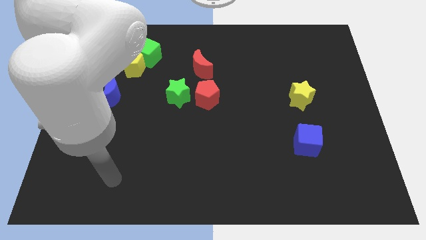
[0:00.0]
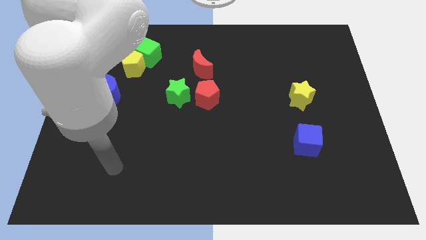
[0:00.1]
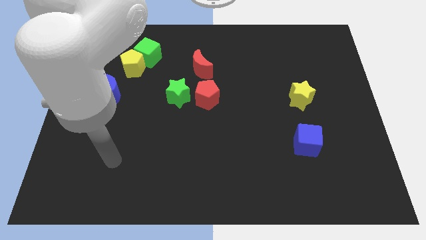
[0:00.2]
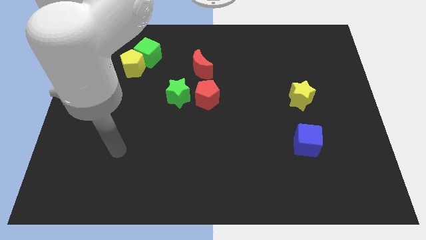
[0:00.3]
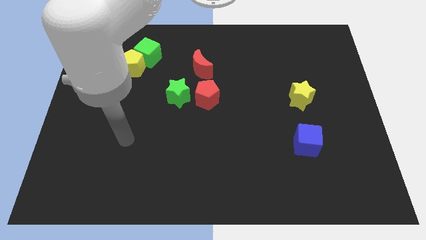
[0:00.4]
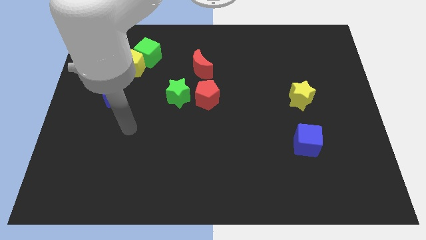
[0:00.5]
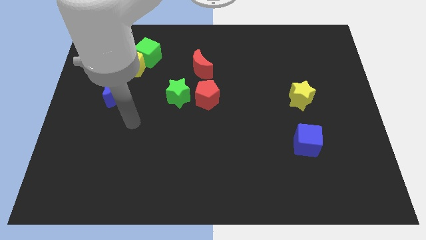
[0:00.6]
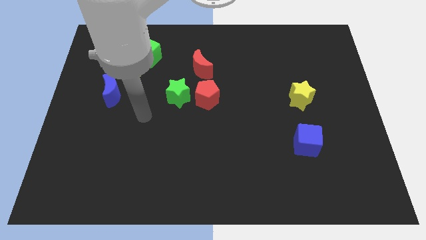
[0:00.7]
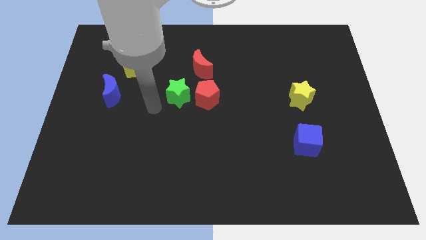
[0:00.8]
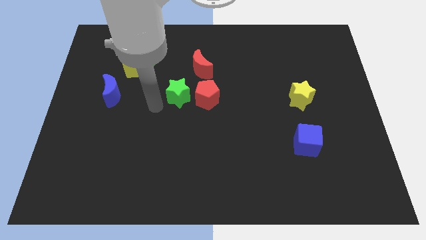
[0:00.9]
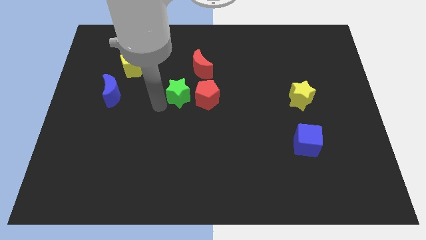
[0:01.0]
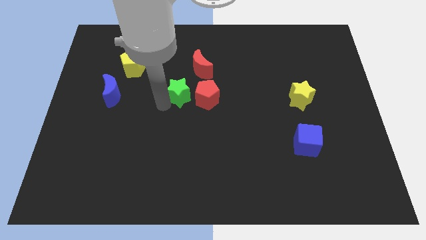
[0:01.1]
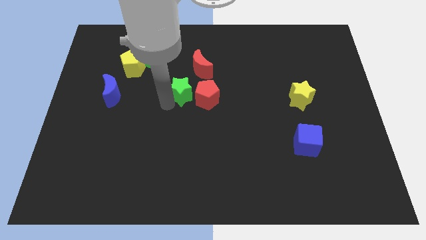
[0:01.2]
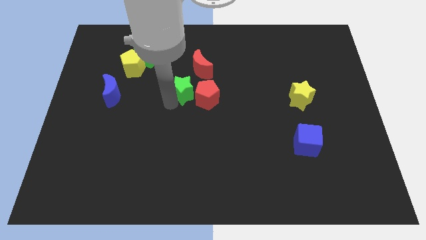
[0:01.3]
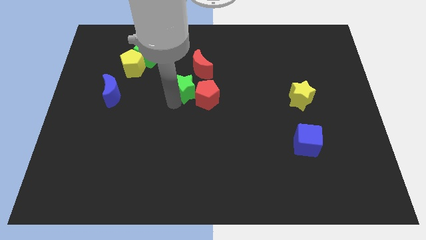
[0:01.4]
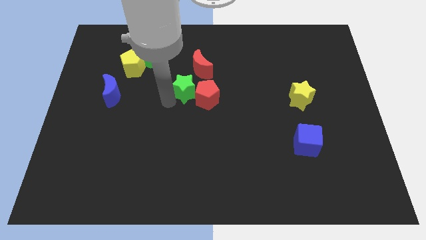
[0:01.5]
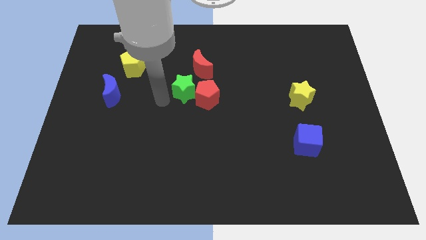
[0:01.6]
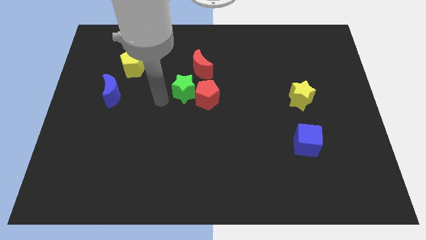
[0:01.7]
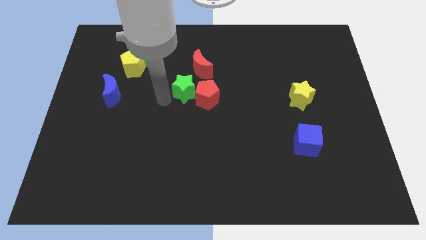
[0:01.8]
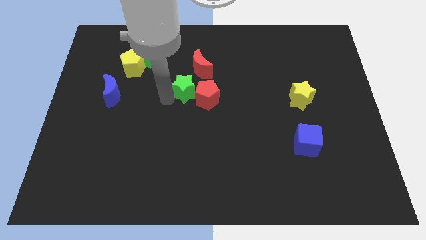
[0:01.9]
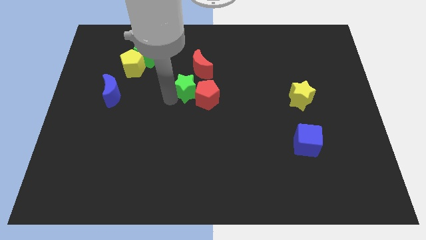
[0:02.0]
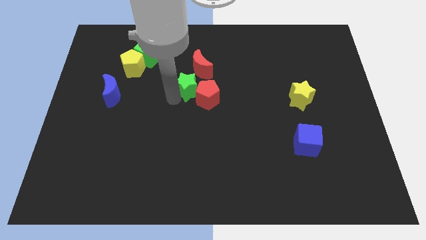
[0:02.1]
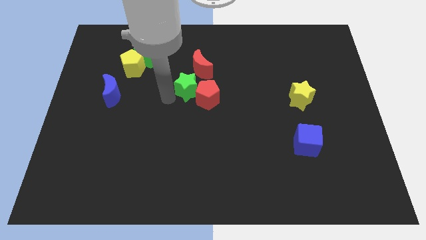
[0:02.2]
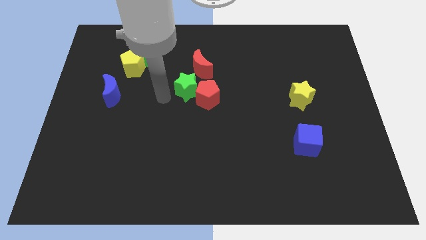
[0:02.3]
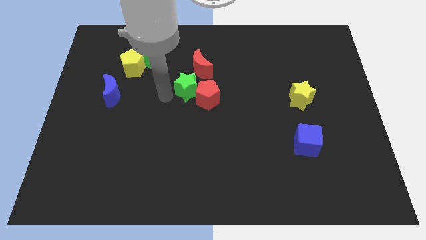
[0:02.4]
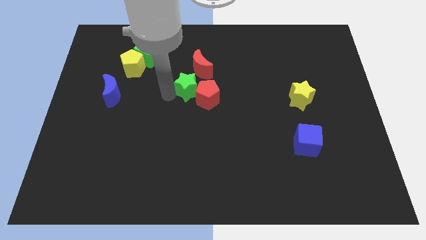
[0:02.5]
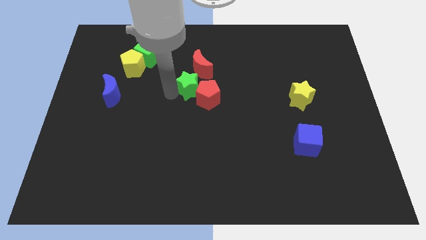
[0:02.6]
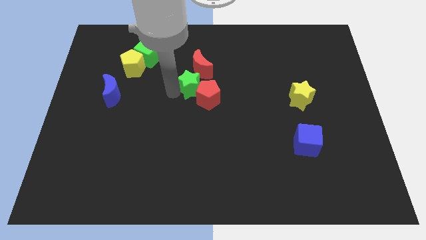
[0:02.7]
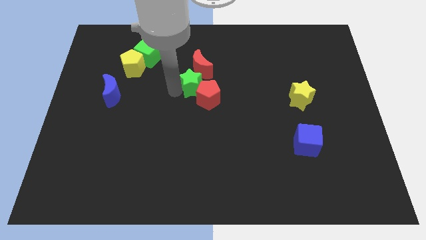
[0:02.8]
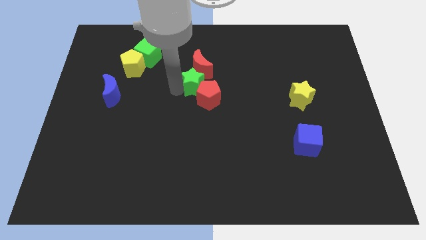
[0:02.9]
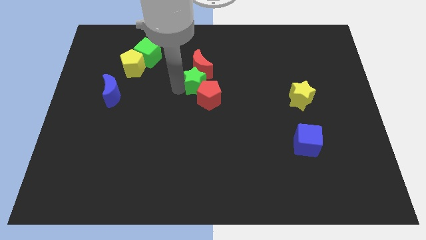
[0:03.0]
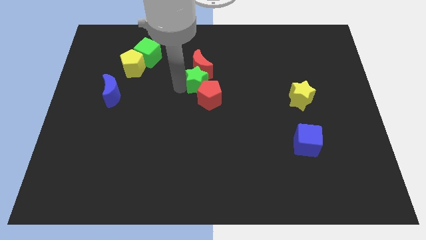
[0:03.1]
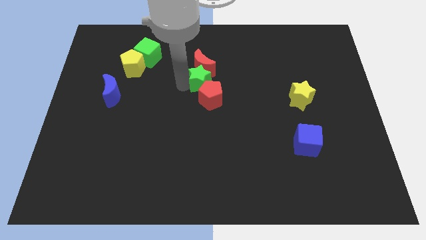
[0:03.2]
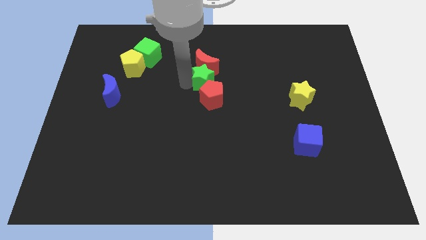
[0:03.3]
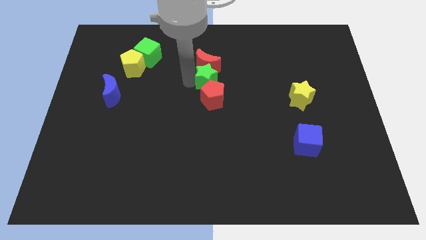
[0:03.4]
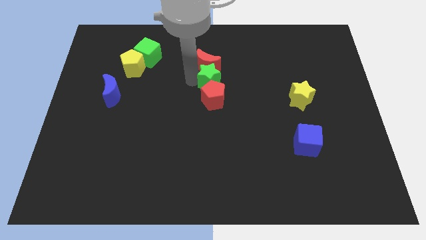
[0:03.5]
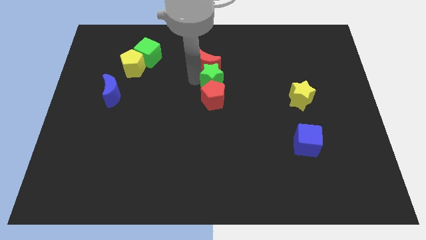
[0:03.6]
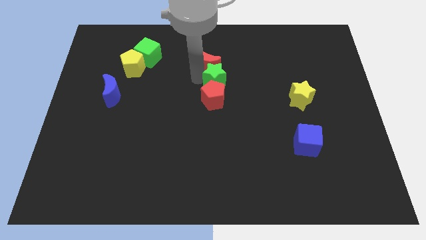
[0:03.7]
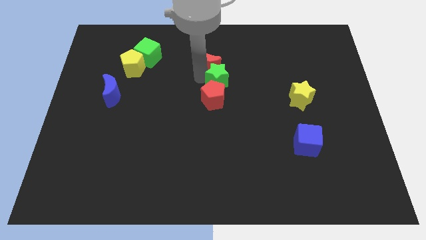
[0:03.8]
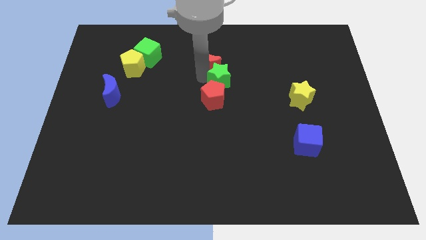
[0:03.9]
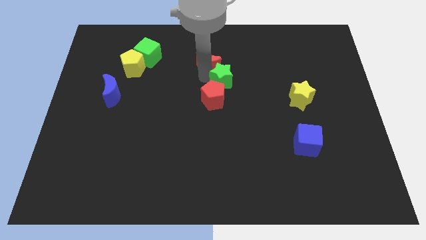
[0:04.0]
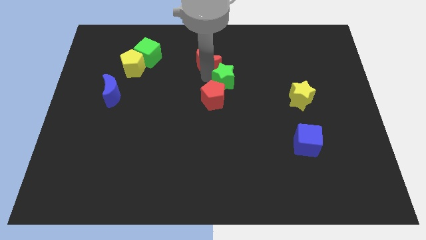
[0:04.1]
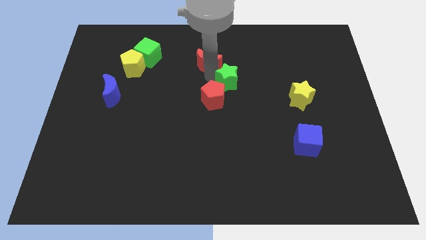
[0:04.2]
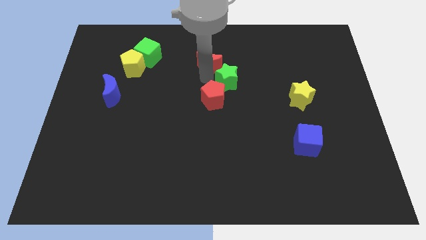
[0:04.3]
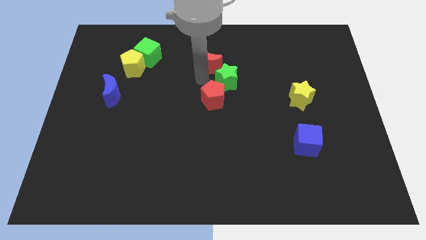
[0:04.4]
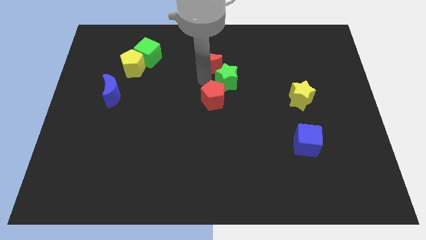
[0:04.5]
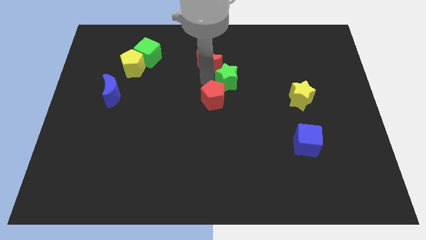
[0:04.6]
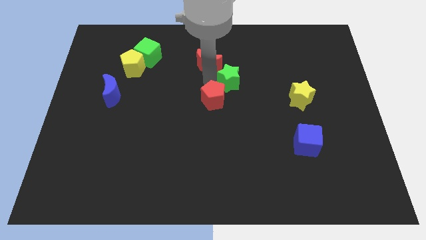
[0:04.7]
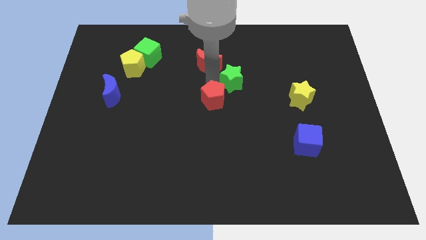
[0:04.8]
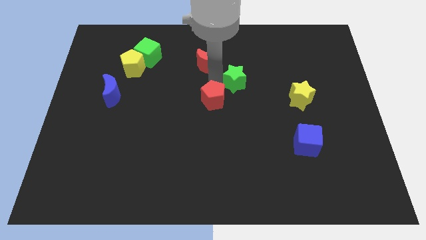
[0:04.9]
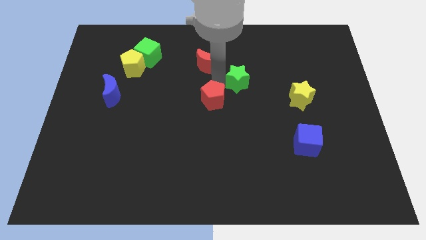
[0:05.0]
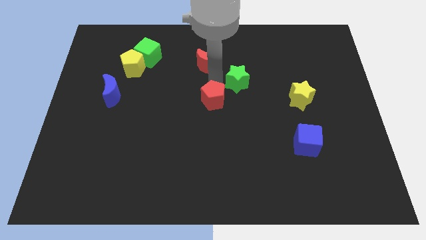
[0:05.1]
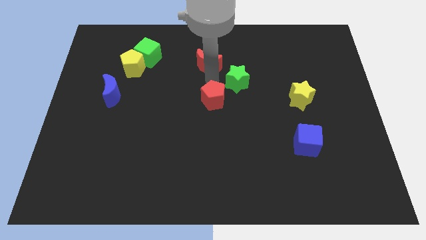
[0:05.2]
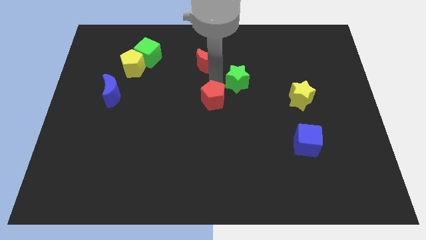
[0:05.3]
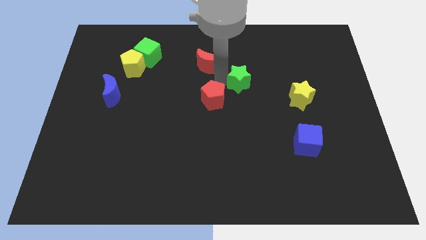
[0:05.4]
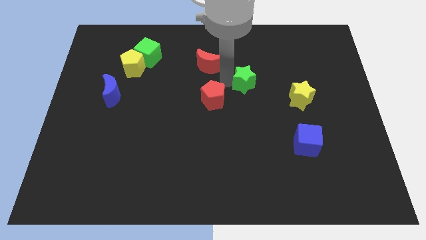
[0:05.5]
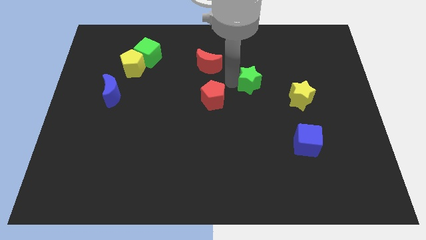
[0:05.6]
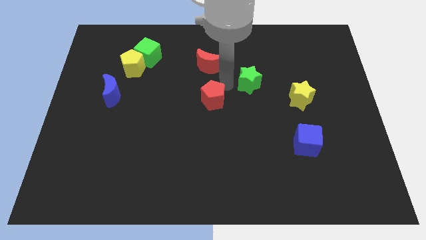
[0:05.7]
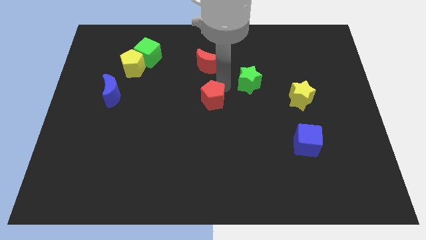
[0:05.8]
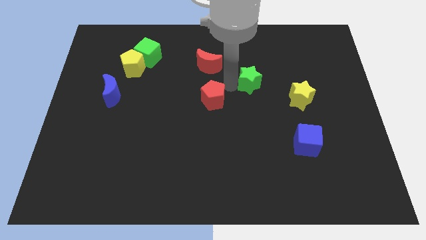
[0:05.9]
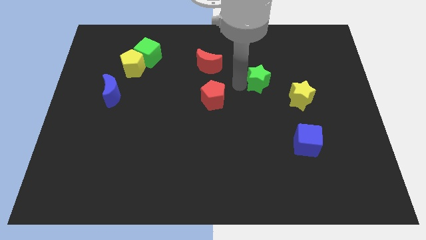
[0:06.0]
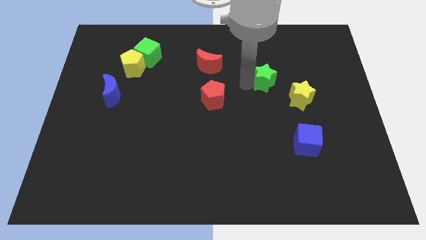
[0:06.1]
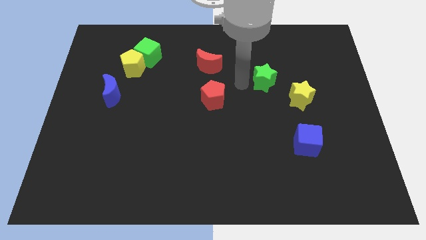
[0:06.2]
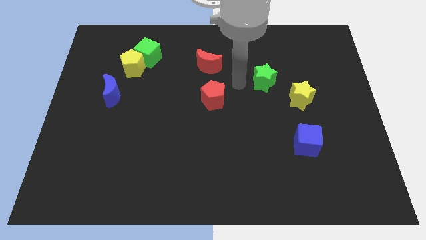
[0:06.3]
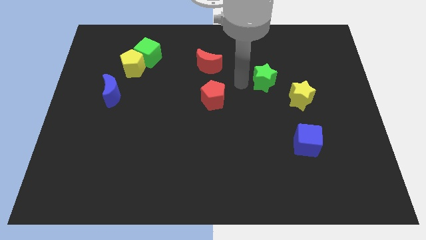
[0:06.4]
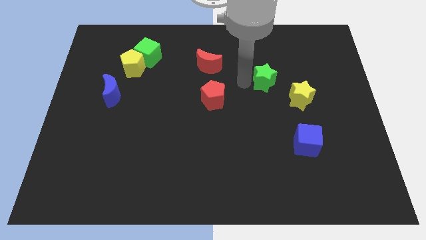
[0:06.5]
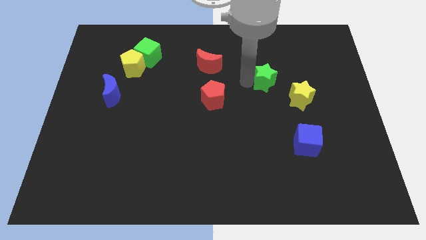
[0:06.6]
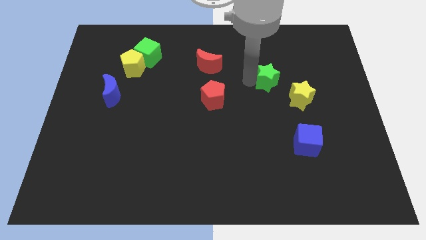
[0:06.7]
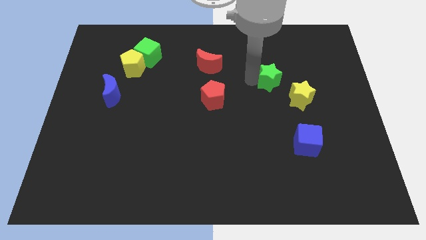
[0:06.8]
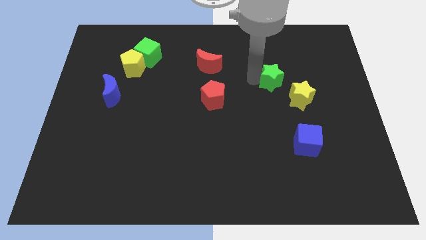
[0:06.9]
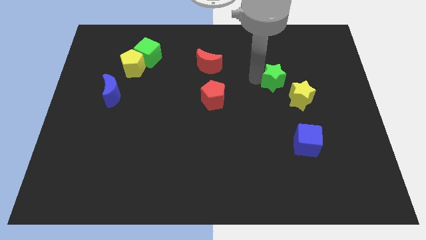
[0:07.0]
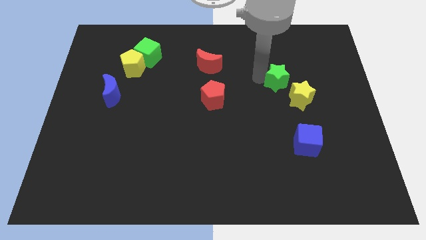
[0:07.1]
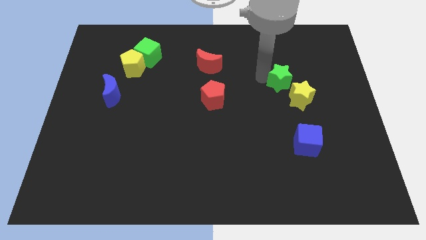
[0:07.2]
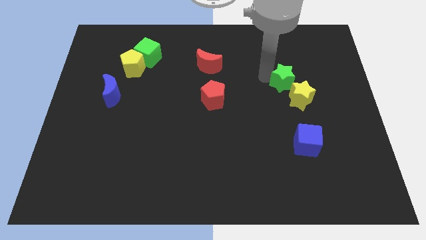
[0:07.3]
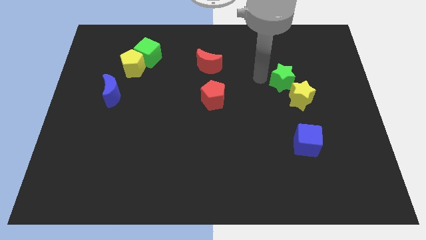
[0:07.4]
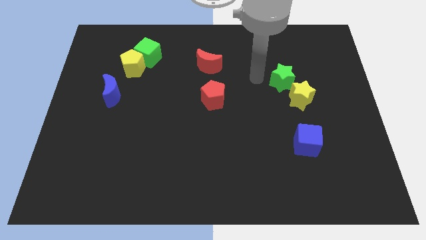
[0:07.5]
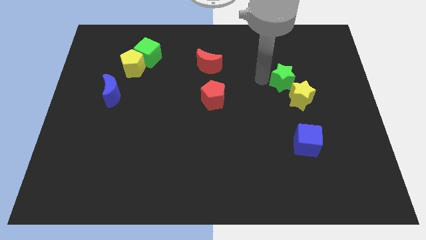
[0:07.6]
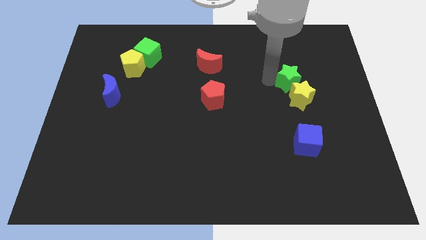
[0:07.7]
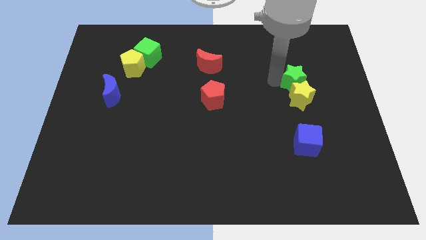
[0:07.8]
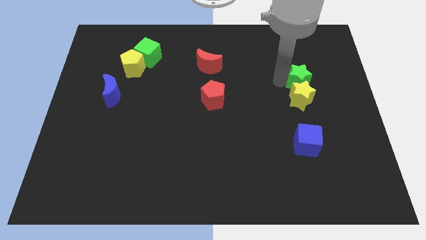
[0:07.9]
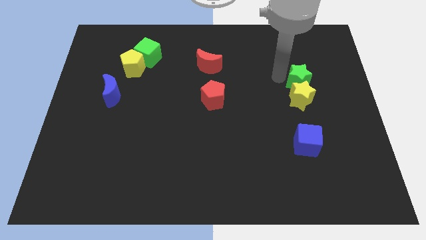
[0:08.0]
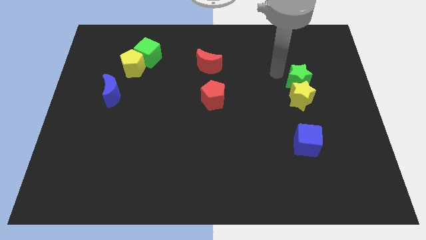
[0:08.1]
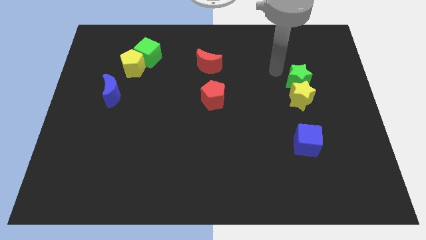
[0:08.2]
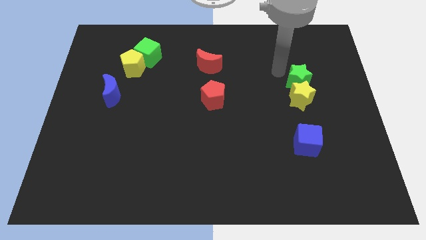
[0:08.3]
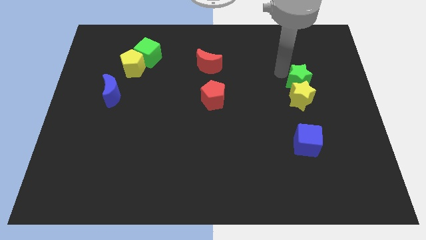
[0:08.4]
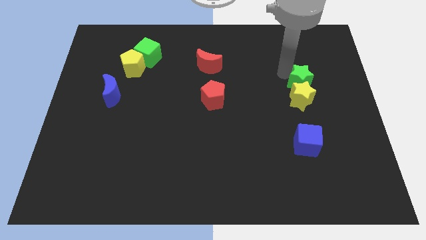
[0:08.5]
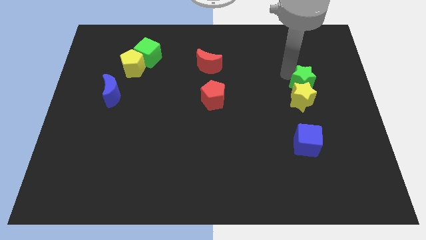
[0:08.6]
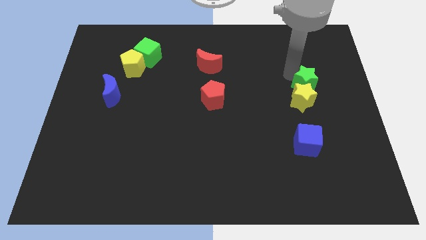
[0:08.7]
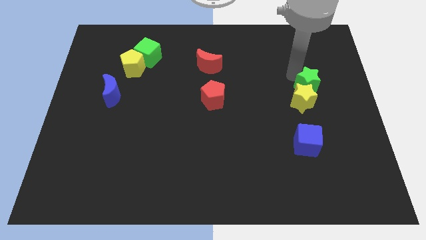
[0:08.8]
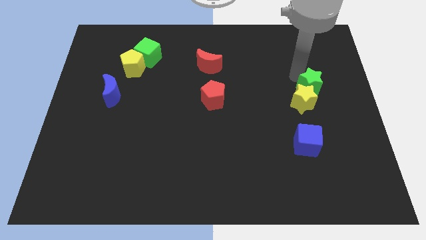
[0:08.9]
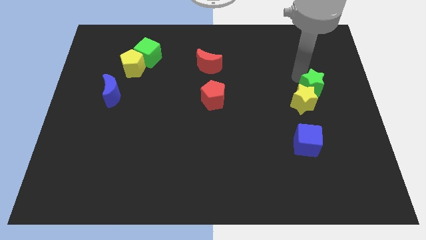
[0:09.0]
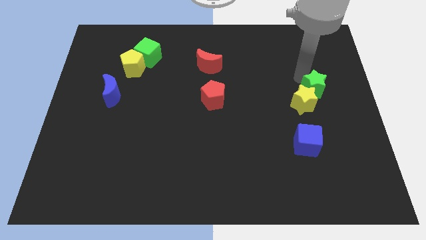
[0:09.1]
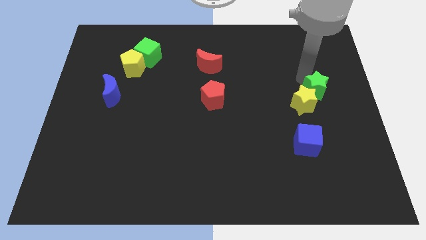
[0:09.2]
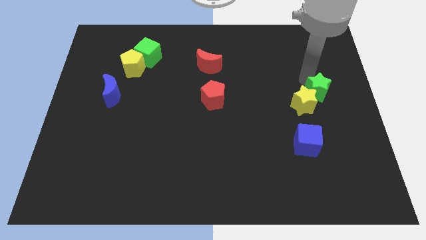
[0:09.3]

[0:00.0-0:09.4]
push the green star to the right side of the board
